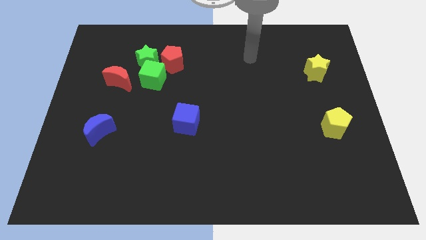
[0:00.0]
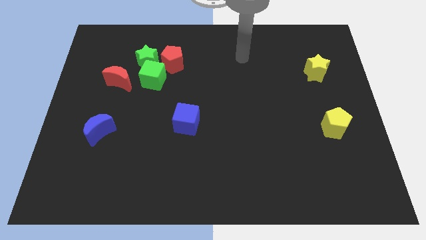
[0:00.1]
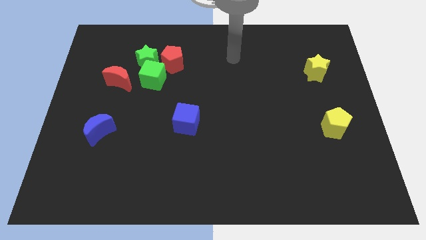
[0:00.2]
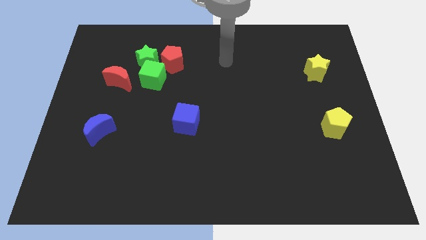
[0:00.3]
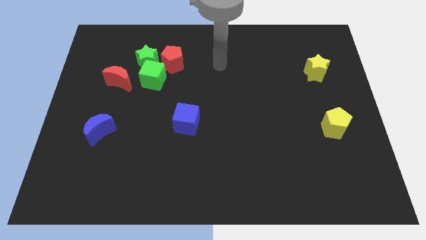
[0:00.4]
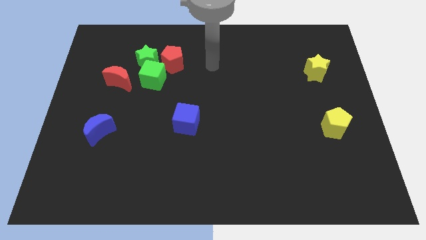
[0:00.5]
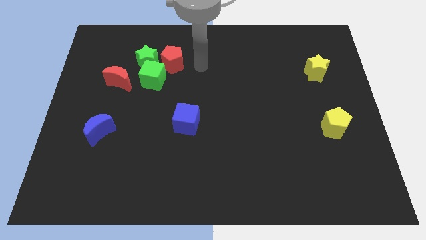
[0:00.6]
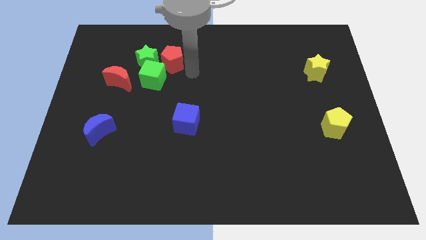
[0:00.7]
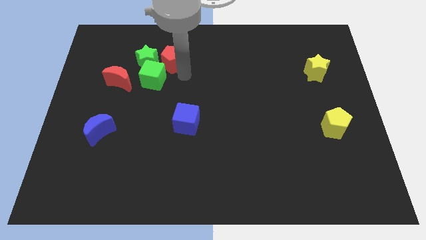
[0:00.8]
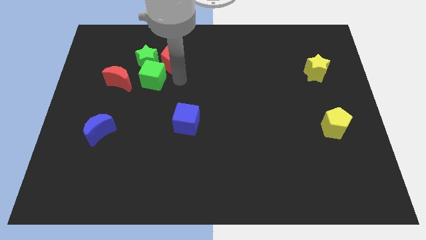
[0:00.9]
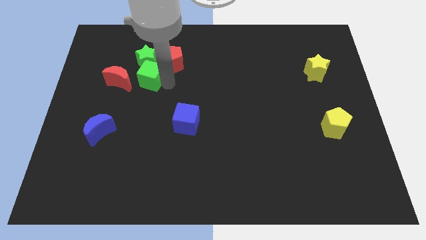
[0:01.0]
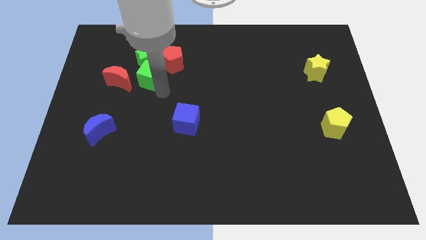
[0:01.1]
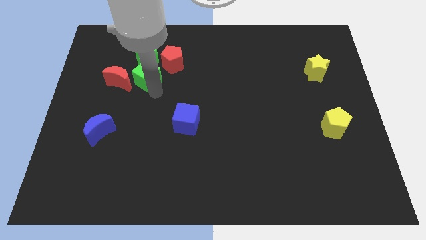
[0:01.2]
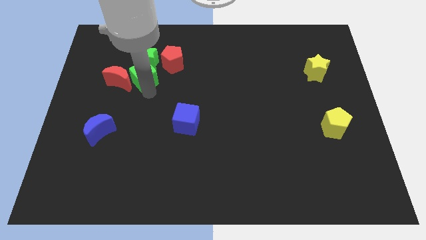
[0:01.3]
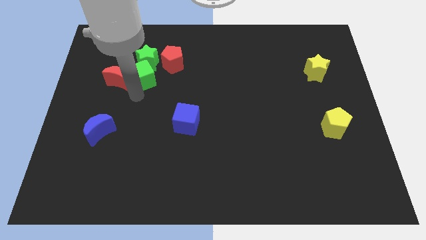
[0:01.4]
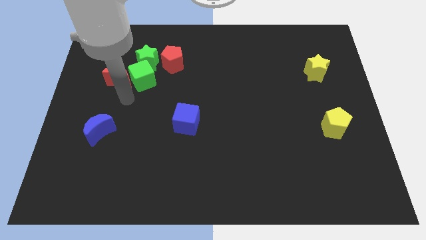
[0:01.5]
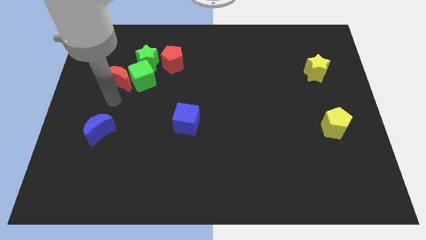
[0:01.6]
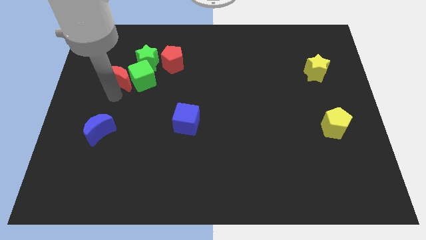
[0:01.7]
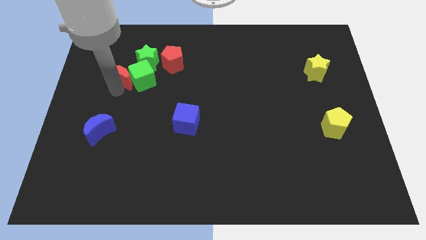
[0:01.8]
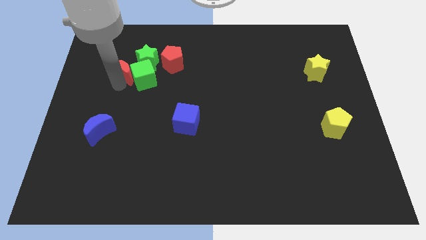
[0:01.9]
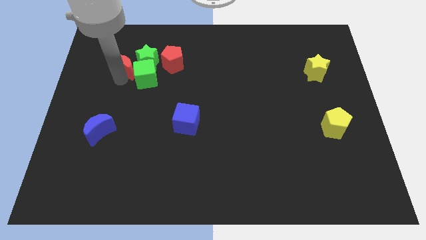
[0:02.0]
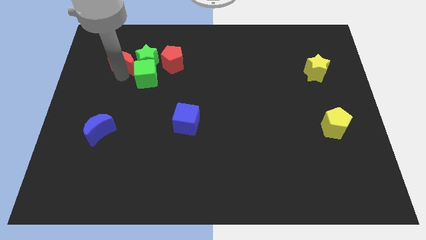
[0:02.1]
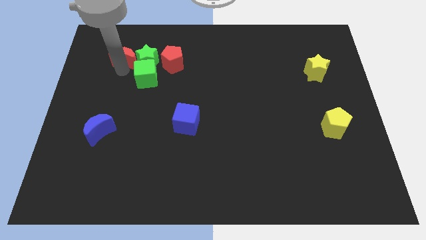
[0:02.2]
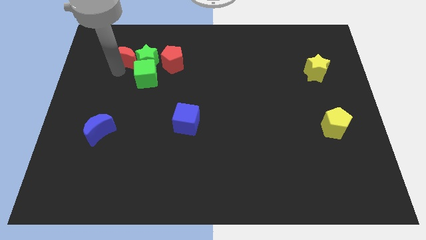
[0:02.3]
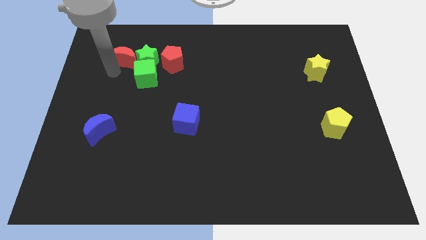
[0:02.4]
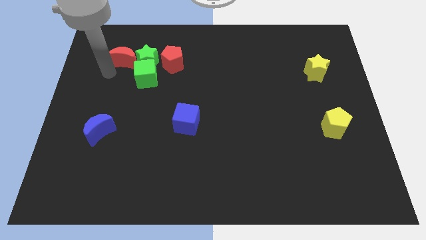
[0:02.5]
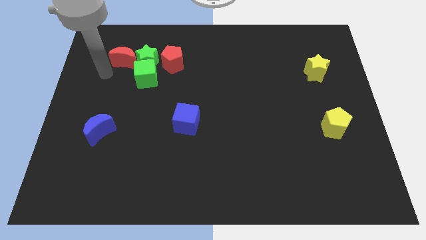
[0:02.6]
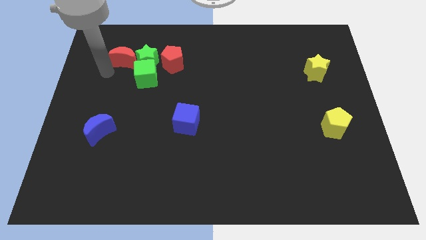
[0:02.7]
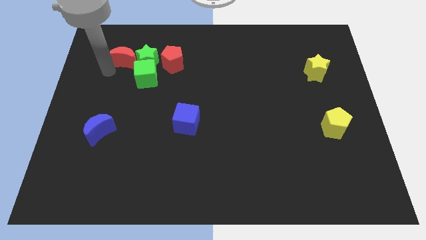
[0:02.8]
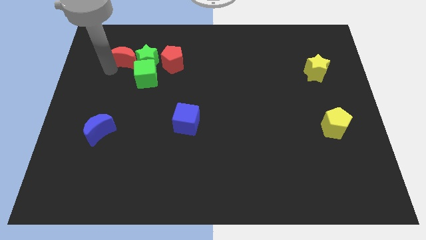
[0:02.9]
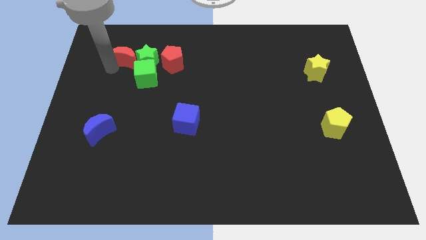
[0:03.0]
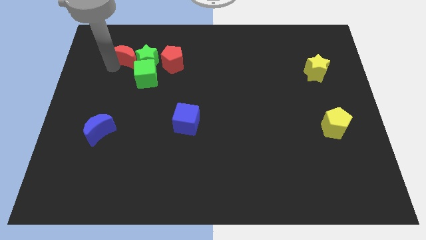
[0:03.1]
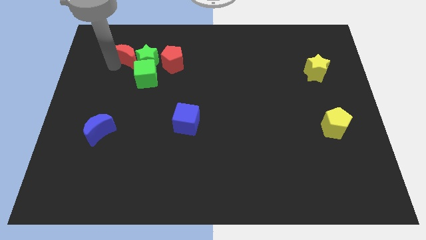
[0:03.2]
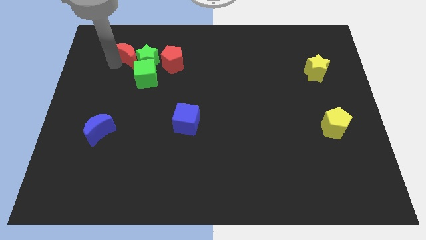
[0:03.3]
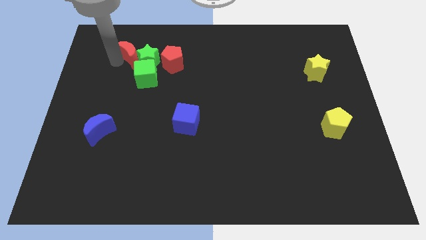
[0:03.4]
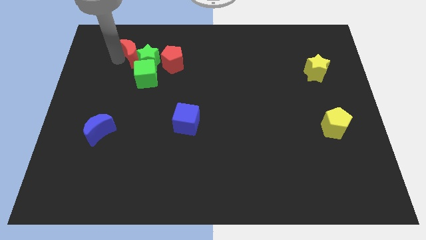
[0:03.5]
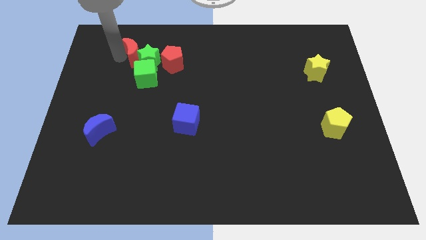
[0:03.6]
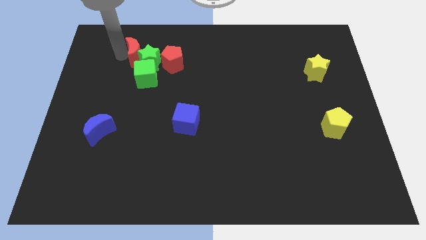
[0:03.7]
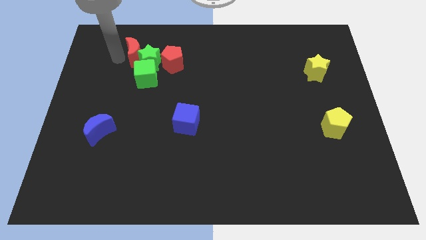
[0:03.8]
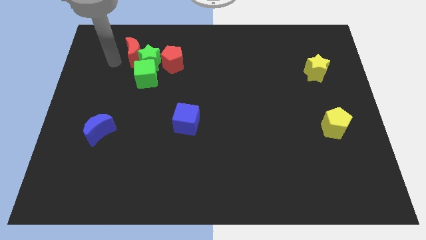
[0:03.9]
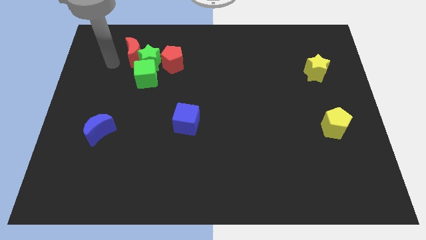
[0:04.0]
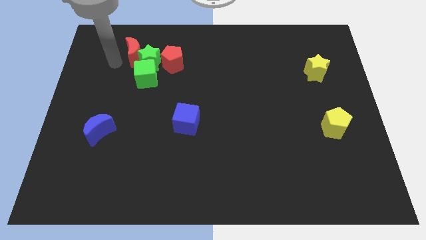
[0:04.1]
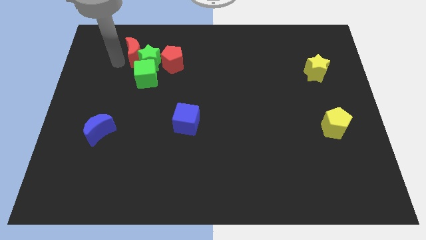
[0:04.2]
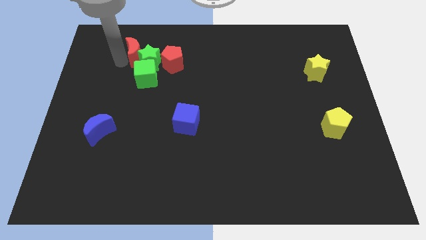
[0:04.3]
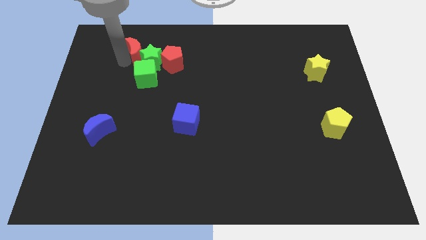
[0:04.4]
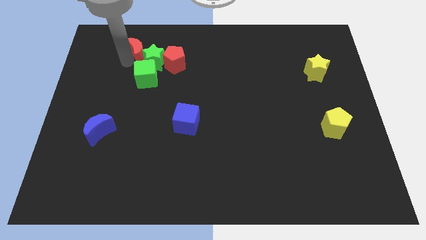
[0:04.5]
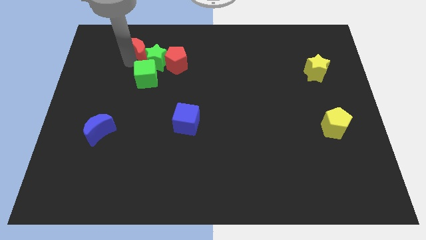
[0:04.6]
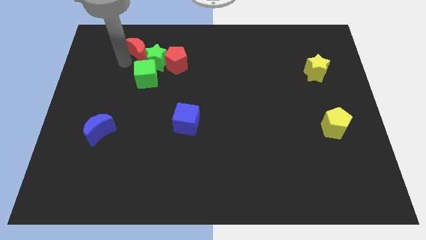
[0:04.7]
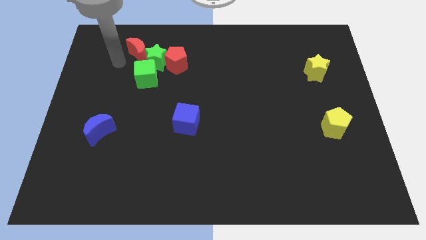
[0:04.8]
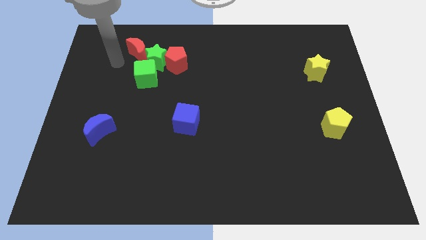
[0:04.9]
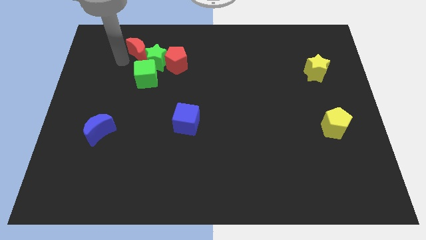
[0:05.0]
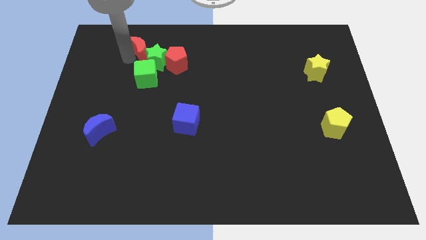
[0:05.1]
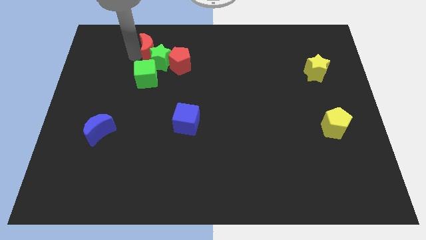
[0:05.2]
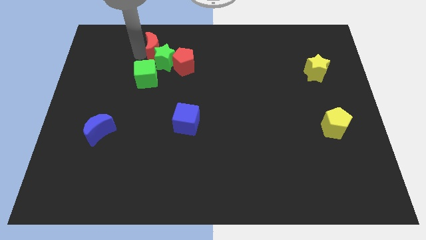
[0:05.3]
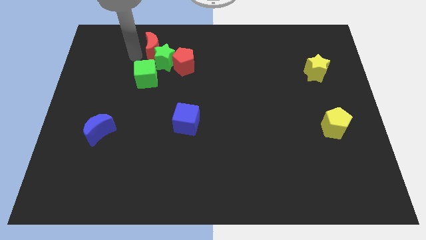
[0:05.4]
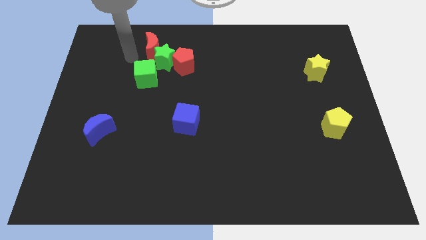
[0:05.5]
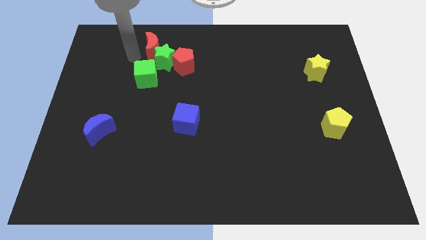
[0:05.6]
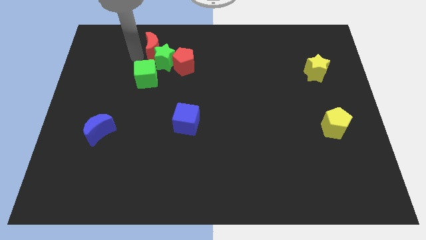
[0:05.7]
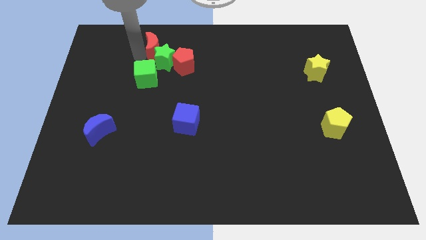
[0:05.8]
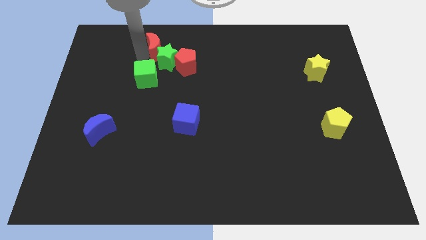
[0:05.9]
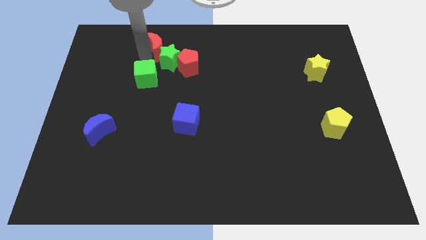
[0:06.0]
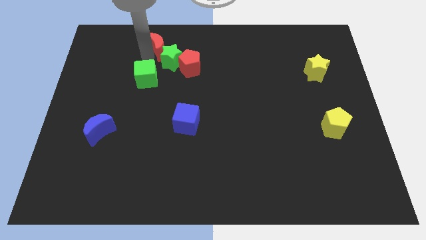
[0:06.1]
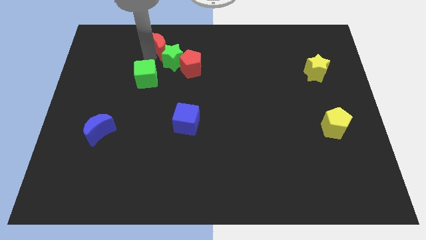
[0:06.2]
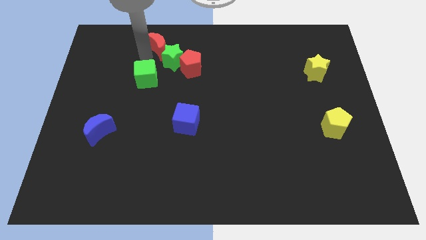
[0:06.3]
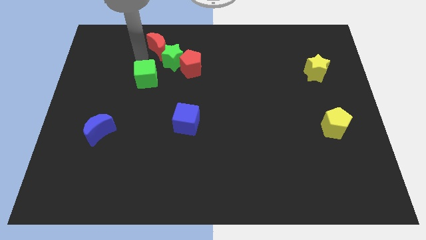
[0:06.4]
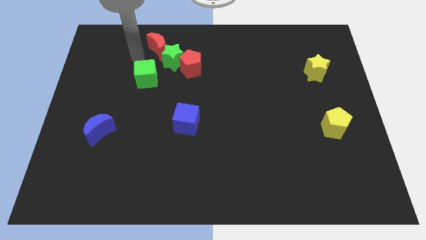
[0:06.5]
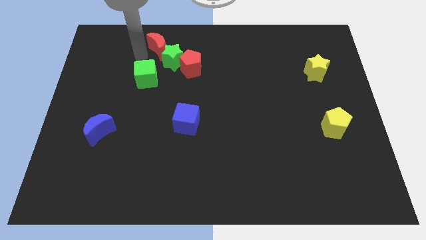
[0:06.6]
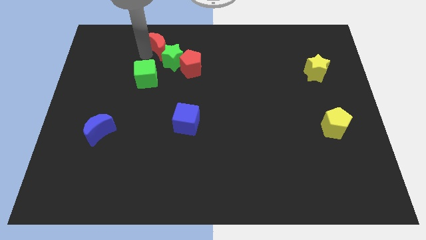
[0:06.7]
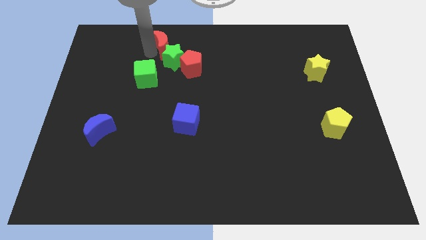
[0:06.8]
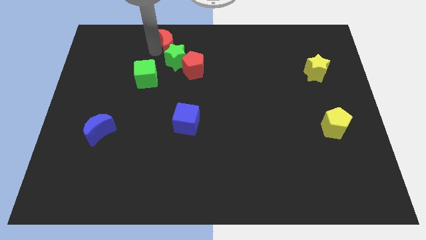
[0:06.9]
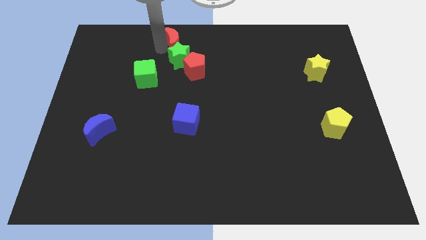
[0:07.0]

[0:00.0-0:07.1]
push the red moon to the top
